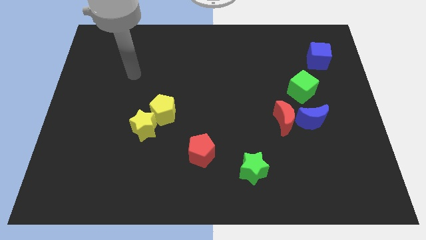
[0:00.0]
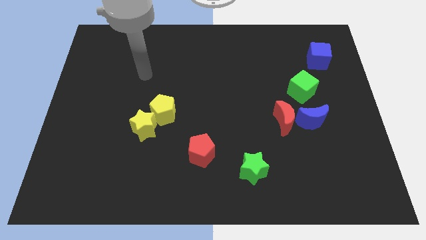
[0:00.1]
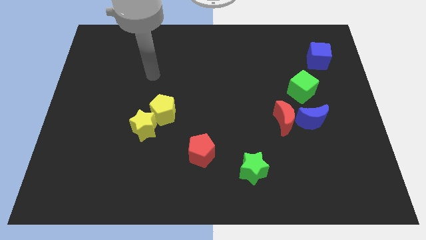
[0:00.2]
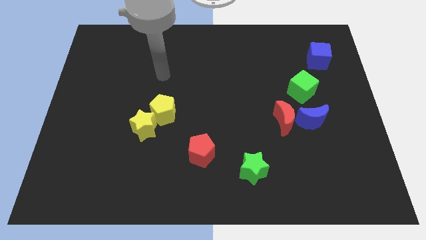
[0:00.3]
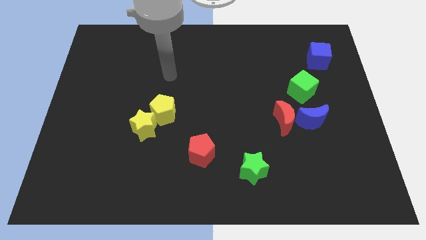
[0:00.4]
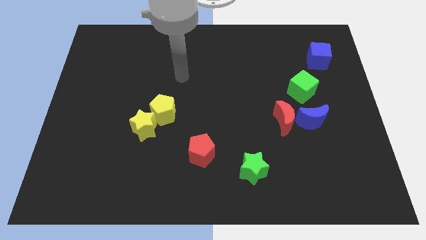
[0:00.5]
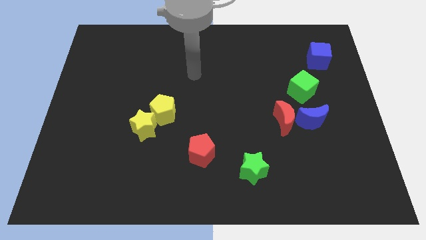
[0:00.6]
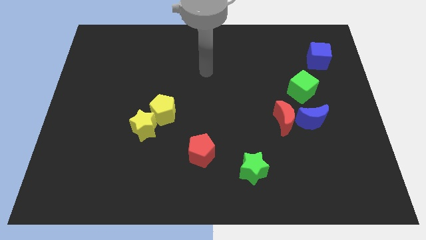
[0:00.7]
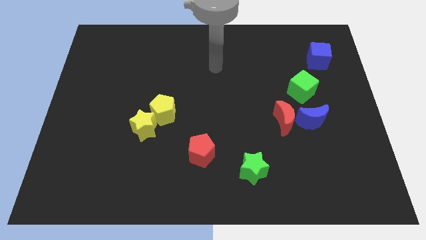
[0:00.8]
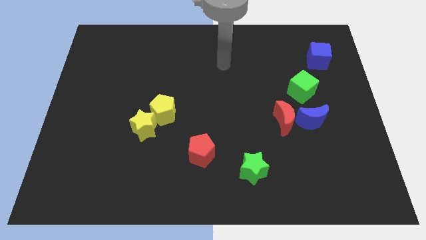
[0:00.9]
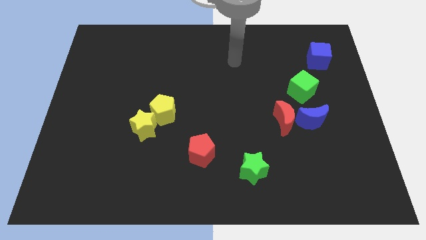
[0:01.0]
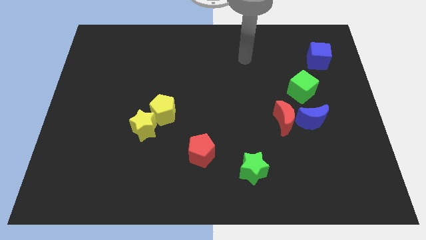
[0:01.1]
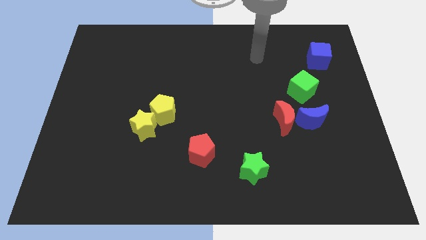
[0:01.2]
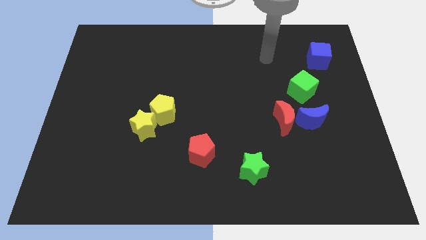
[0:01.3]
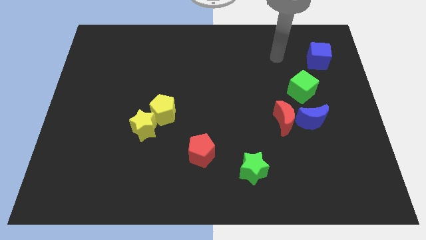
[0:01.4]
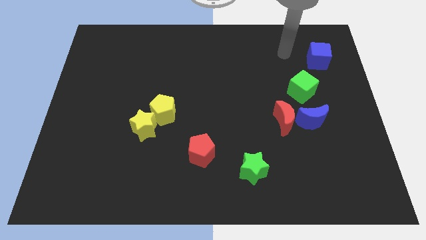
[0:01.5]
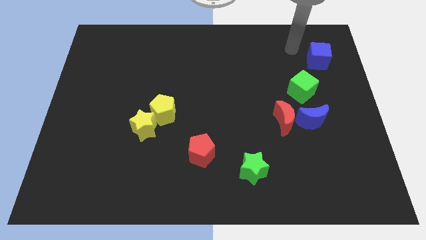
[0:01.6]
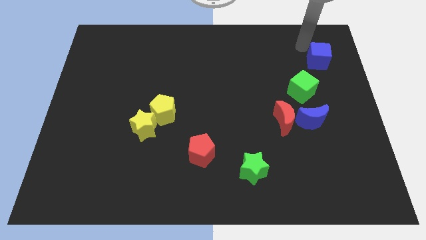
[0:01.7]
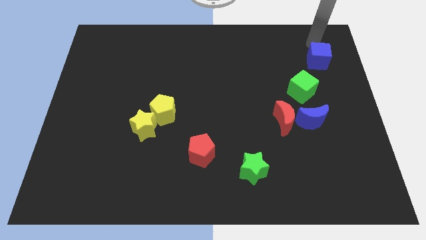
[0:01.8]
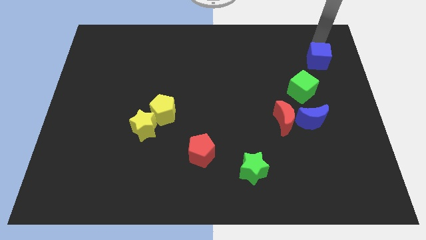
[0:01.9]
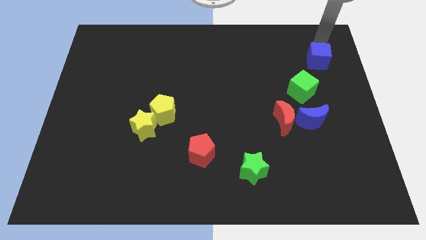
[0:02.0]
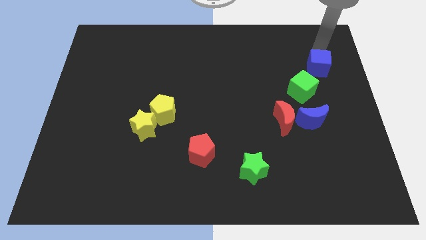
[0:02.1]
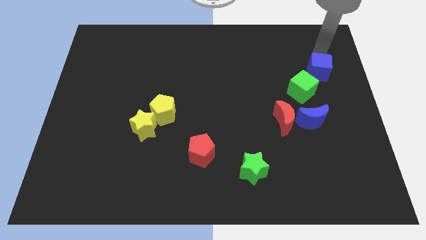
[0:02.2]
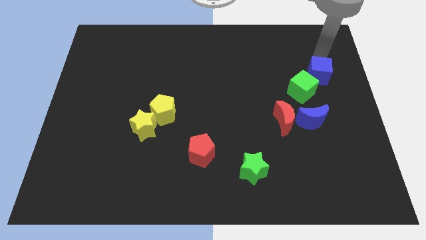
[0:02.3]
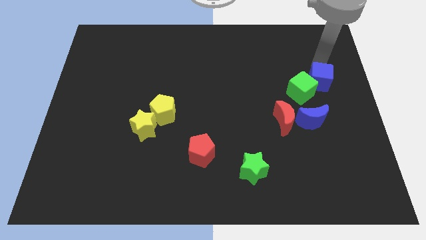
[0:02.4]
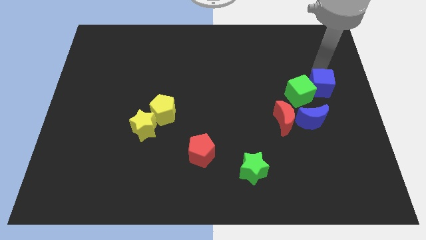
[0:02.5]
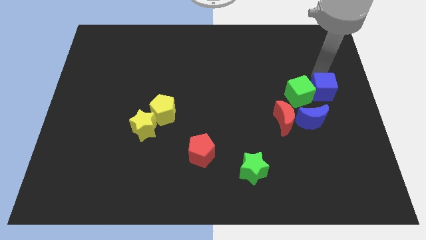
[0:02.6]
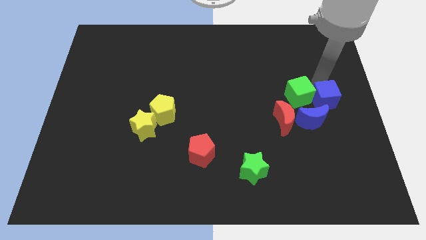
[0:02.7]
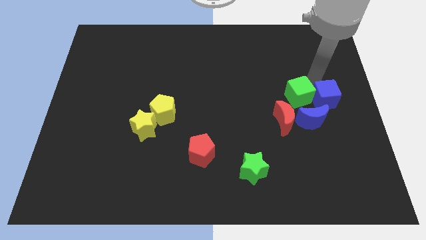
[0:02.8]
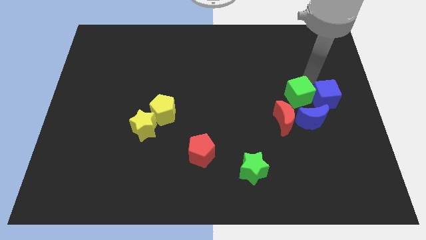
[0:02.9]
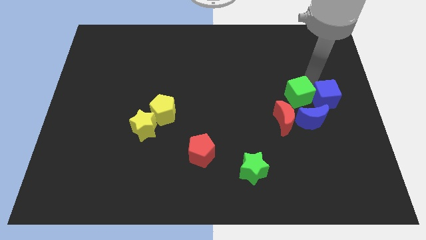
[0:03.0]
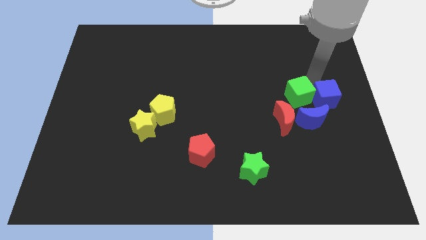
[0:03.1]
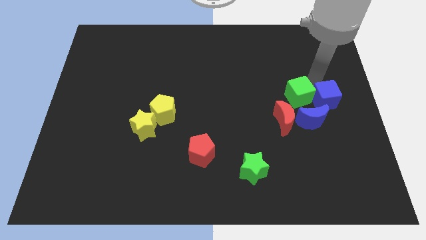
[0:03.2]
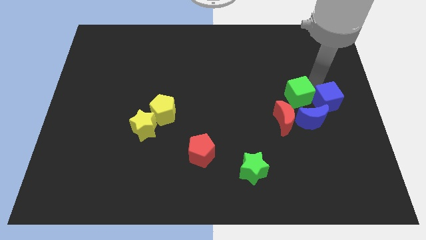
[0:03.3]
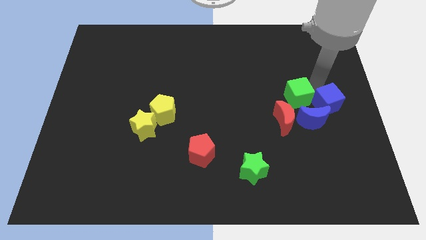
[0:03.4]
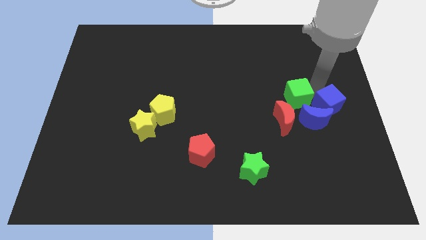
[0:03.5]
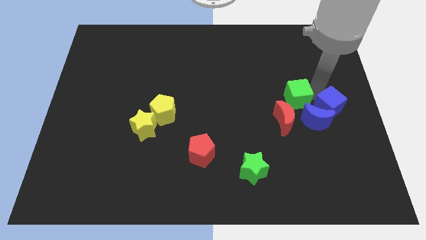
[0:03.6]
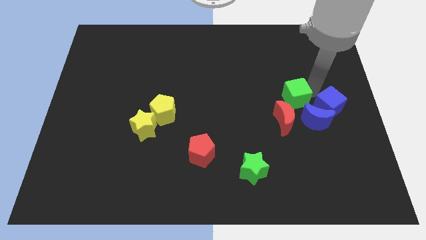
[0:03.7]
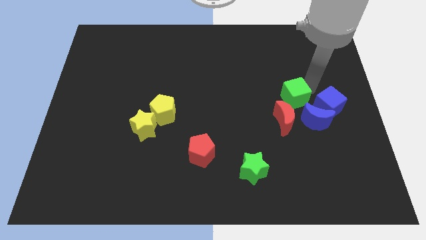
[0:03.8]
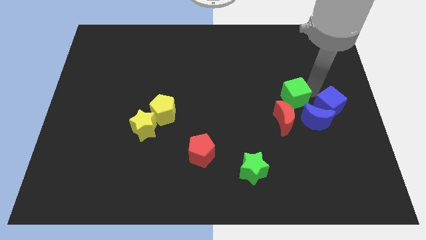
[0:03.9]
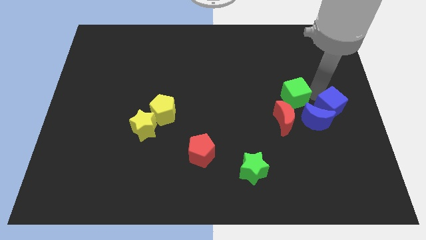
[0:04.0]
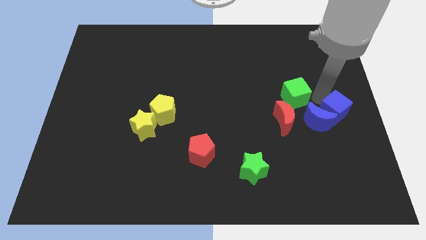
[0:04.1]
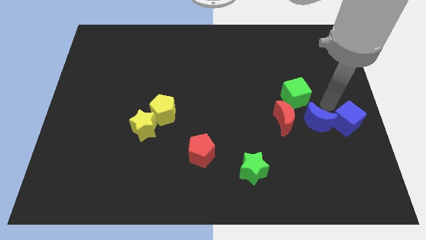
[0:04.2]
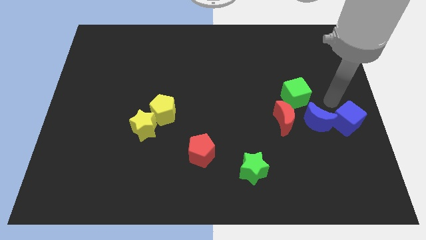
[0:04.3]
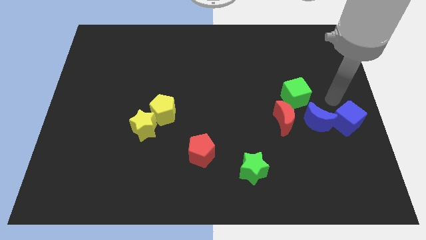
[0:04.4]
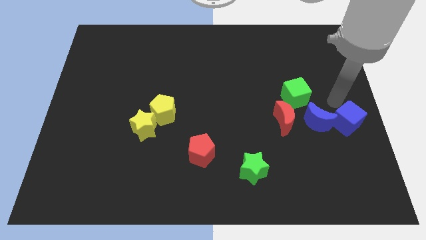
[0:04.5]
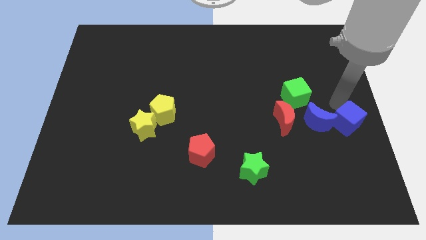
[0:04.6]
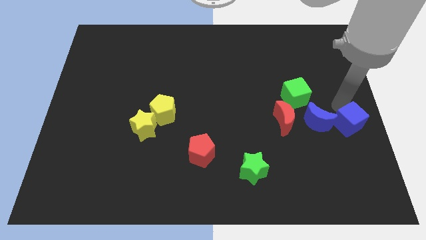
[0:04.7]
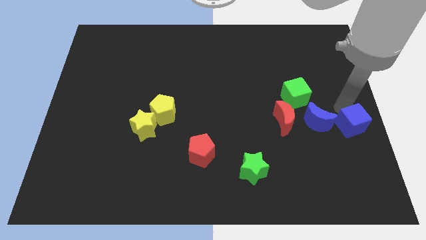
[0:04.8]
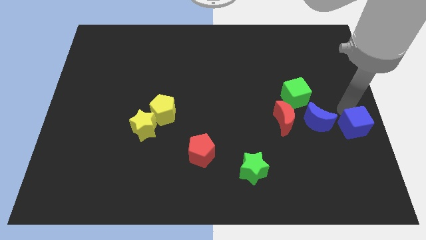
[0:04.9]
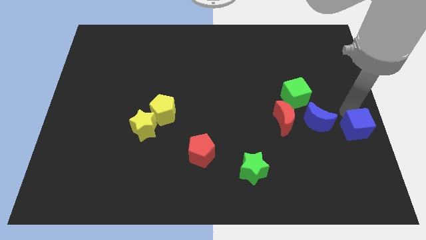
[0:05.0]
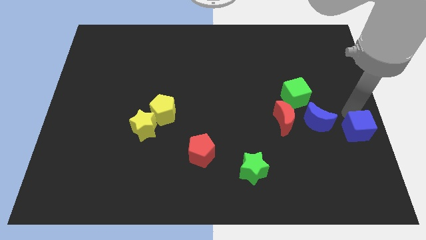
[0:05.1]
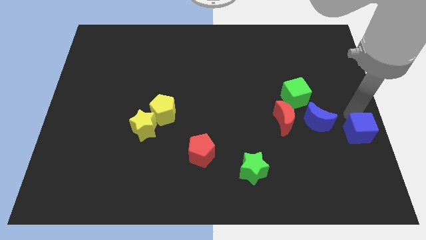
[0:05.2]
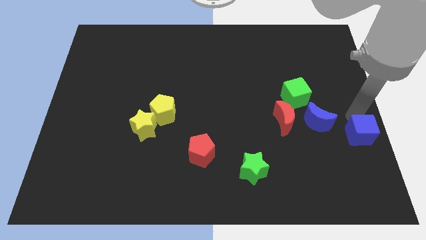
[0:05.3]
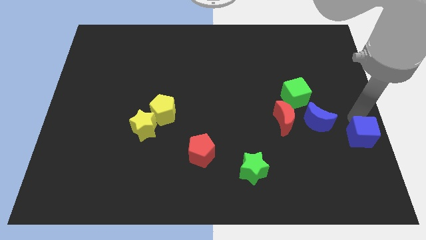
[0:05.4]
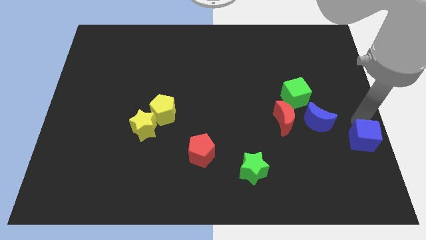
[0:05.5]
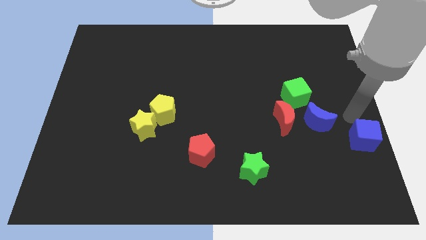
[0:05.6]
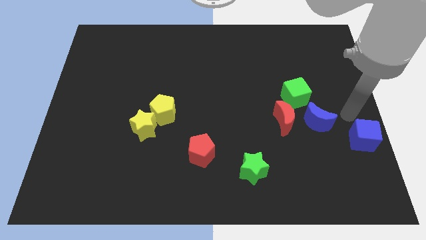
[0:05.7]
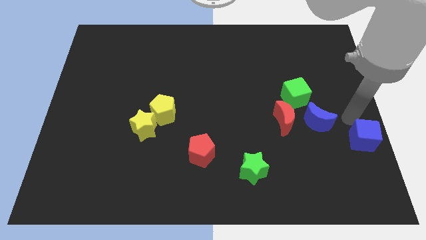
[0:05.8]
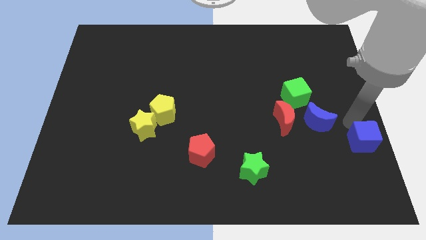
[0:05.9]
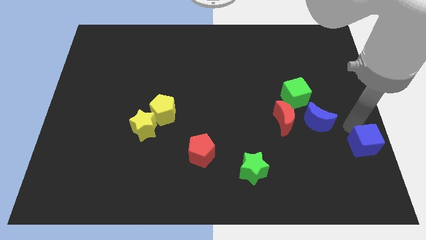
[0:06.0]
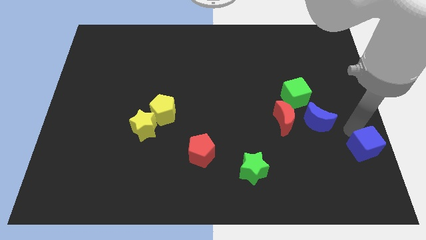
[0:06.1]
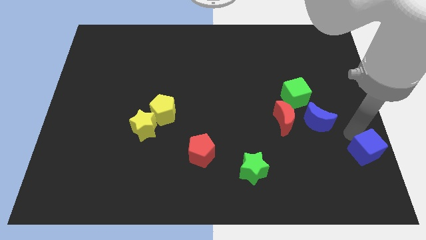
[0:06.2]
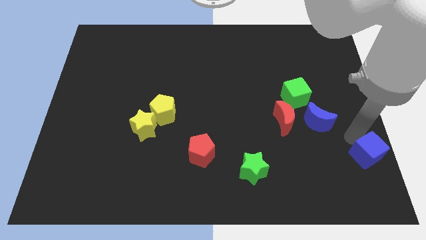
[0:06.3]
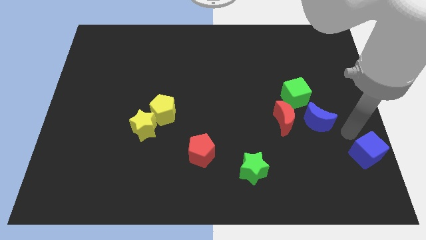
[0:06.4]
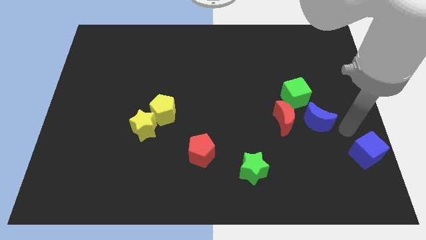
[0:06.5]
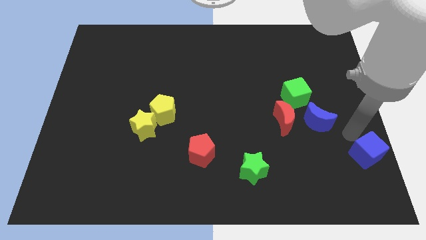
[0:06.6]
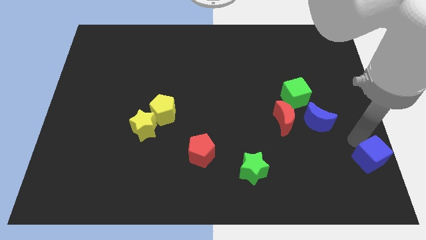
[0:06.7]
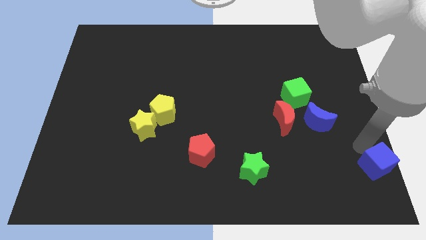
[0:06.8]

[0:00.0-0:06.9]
move the blue cube to the bottom right

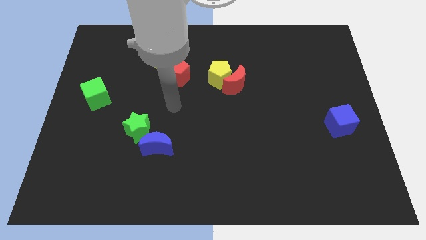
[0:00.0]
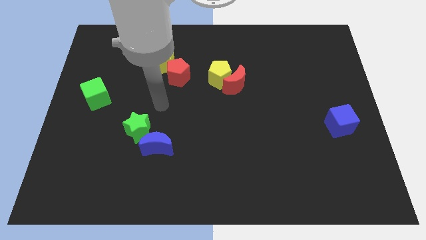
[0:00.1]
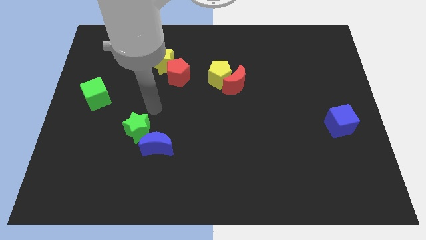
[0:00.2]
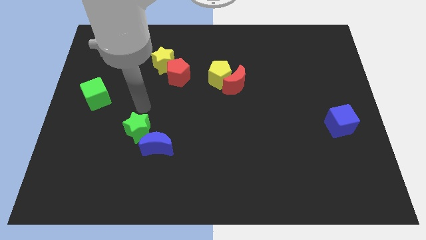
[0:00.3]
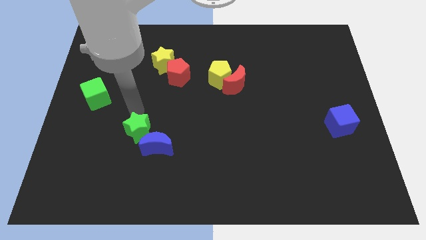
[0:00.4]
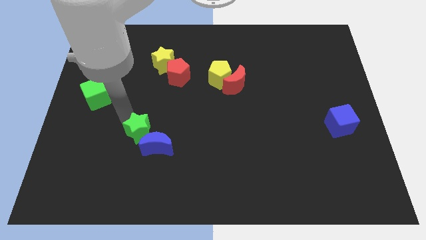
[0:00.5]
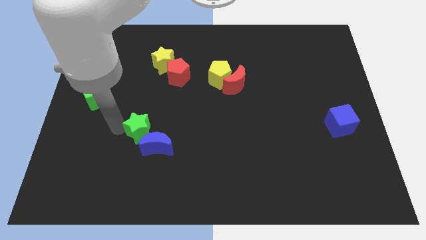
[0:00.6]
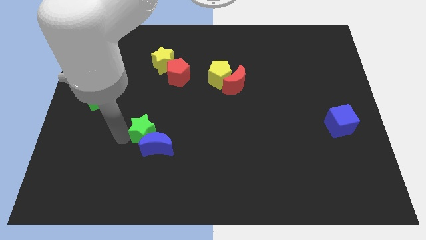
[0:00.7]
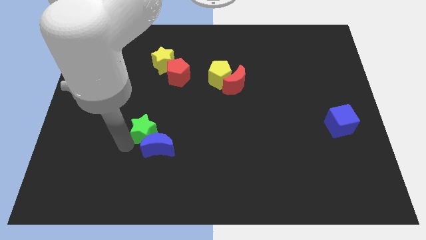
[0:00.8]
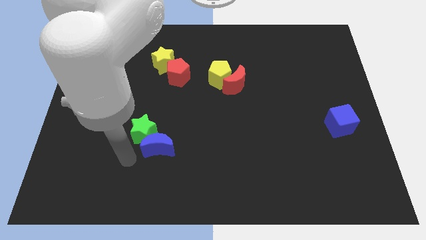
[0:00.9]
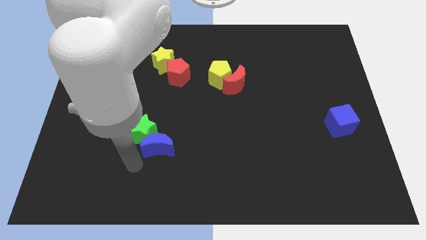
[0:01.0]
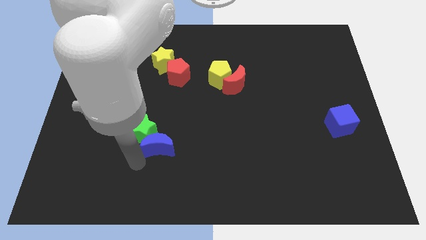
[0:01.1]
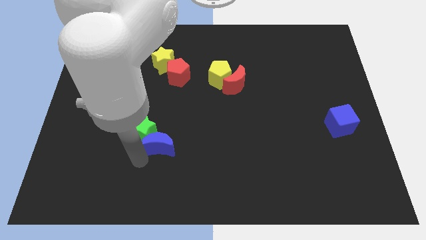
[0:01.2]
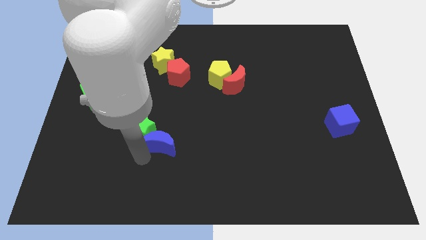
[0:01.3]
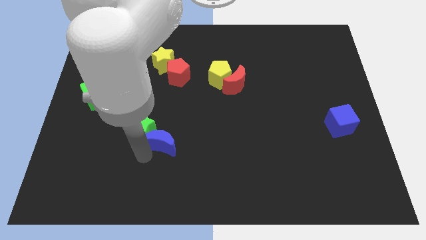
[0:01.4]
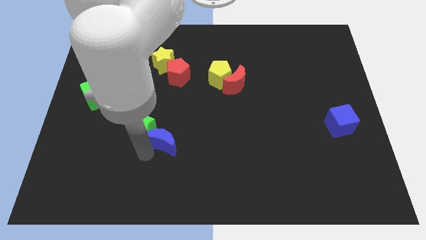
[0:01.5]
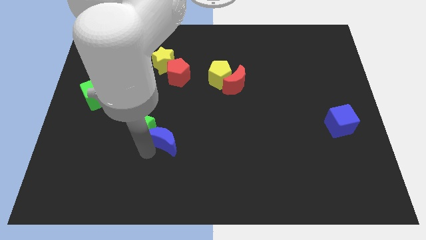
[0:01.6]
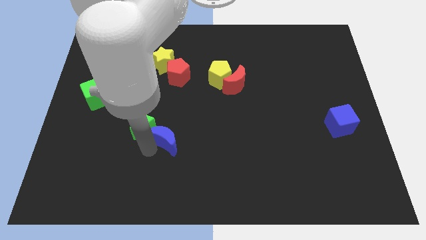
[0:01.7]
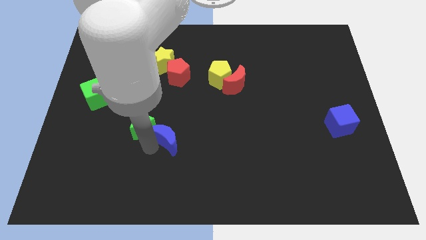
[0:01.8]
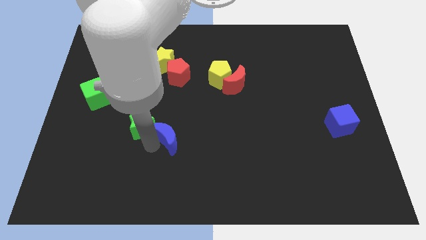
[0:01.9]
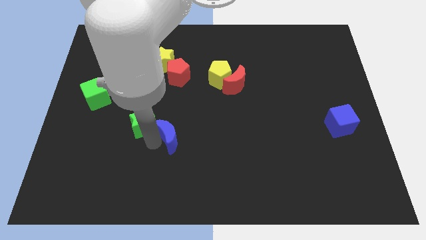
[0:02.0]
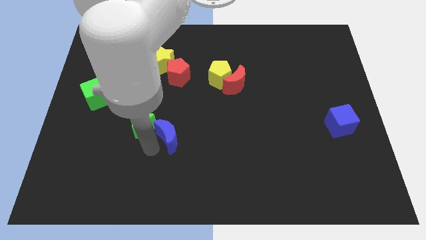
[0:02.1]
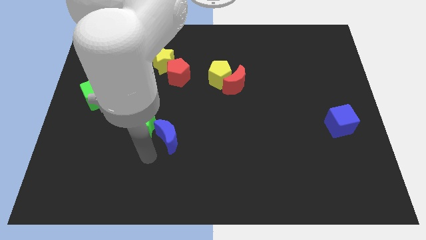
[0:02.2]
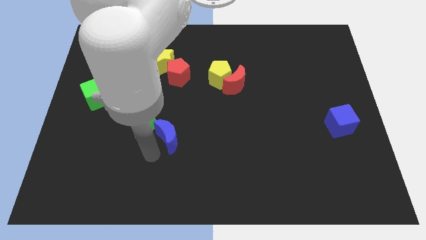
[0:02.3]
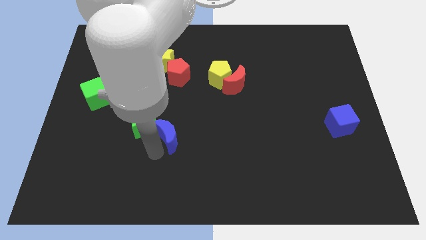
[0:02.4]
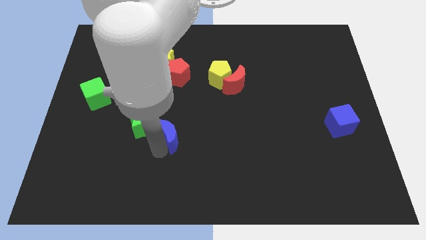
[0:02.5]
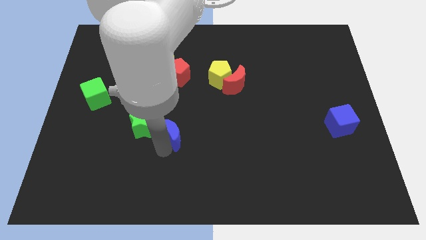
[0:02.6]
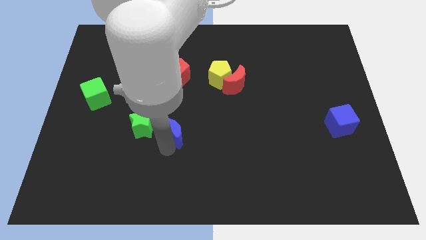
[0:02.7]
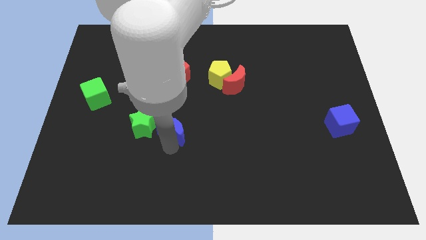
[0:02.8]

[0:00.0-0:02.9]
slide the blue moon to the center
